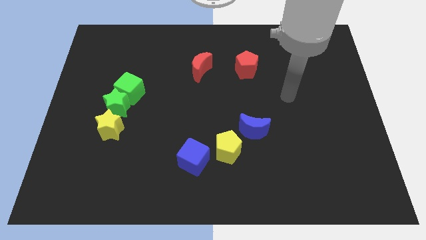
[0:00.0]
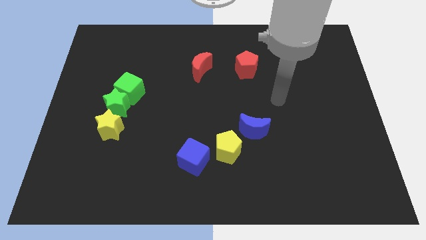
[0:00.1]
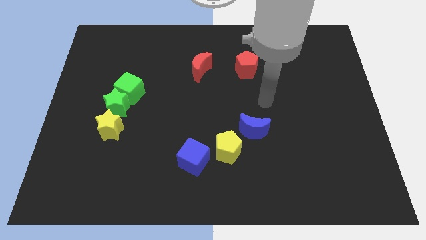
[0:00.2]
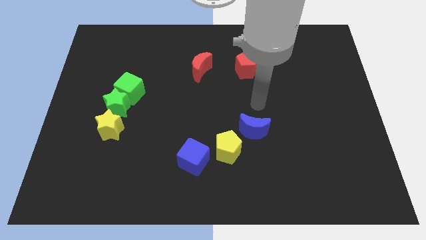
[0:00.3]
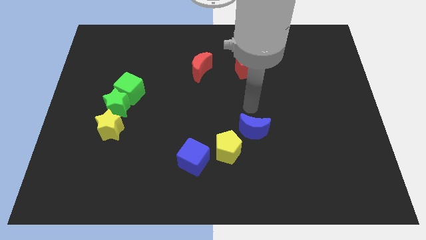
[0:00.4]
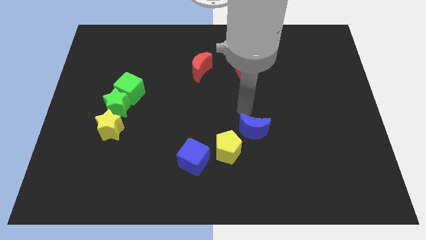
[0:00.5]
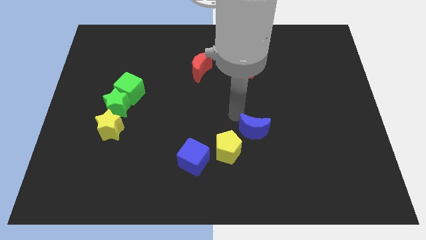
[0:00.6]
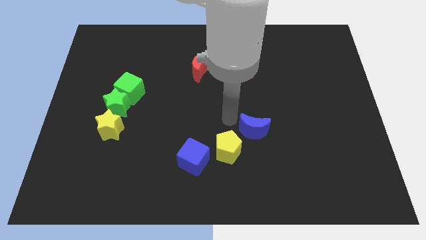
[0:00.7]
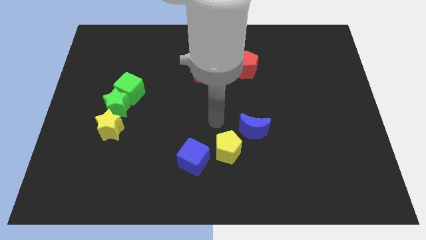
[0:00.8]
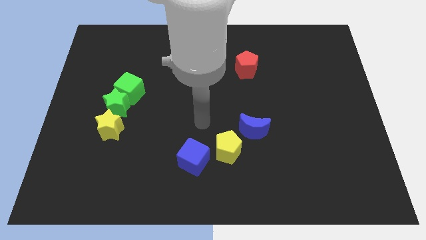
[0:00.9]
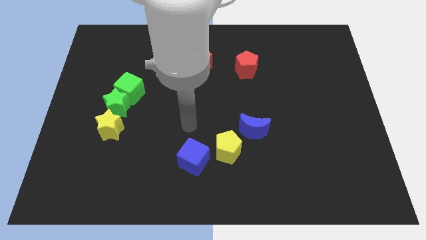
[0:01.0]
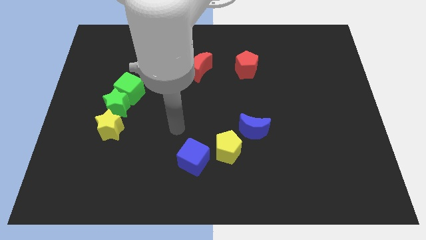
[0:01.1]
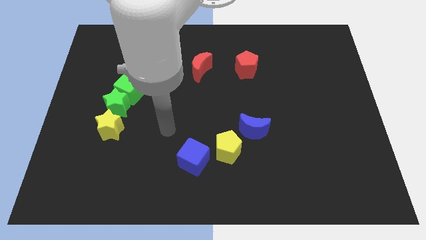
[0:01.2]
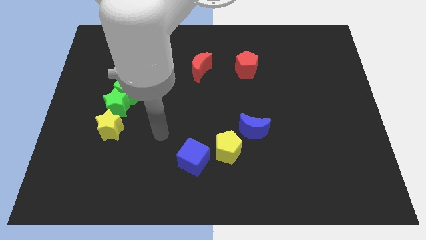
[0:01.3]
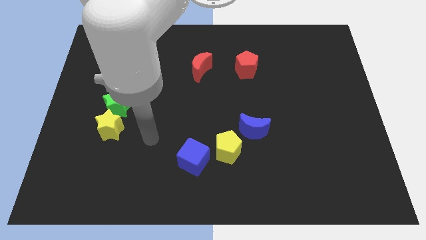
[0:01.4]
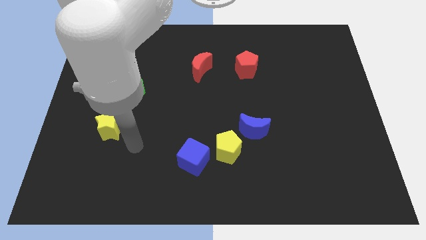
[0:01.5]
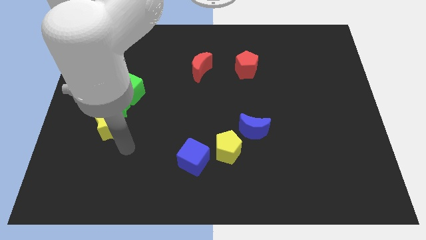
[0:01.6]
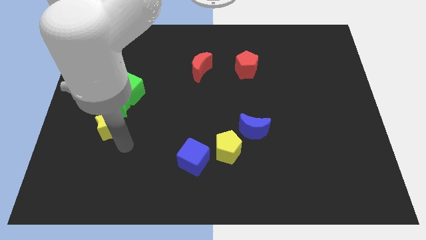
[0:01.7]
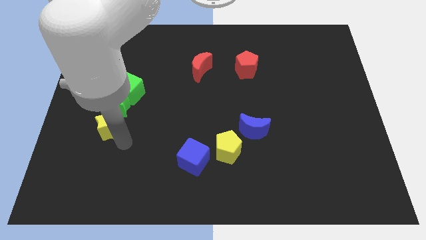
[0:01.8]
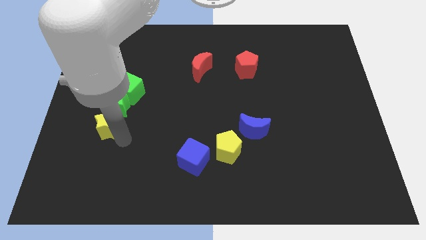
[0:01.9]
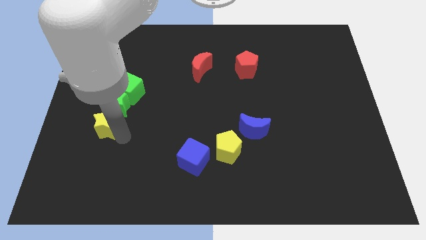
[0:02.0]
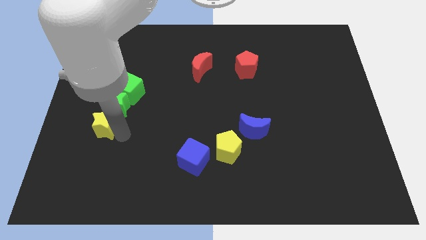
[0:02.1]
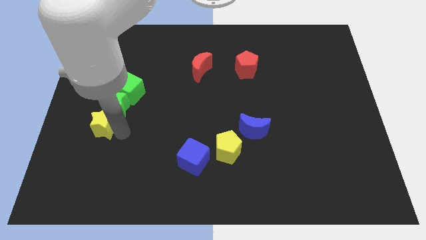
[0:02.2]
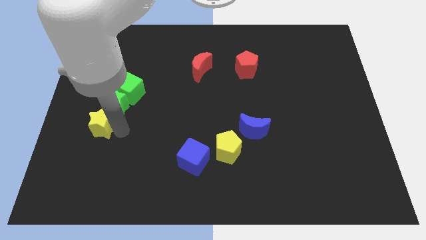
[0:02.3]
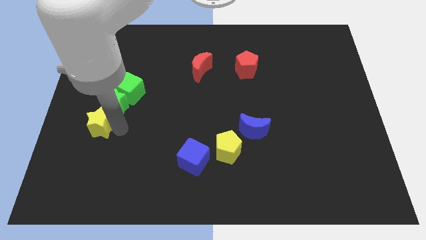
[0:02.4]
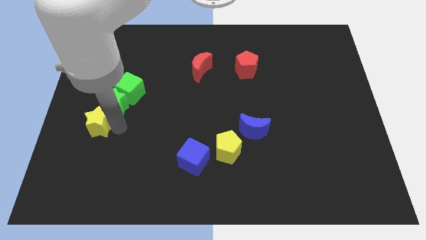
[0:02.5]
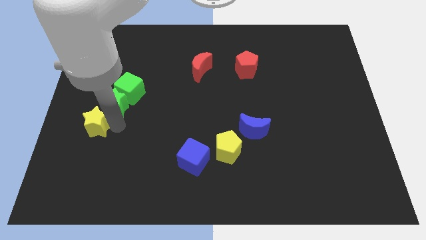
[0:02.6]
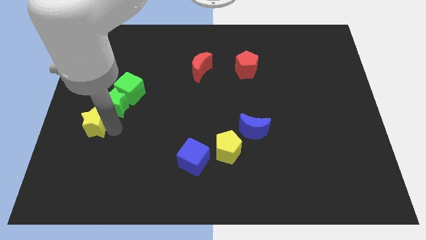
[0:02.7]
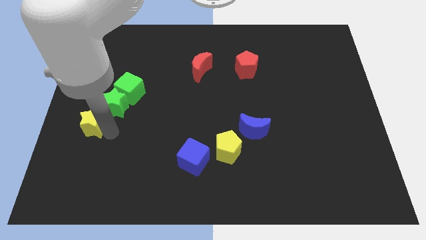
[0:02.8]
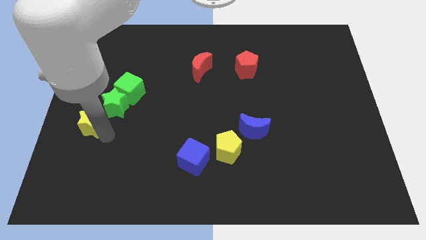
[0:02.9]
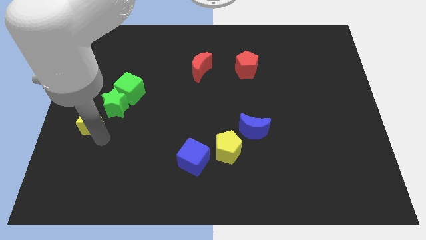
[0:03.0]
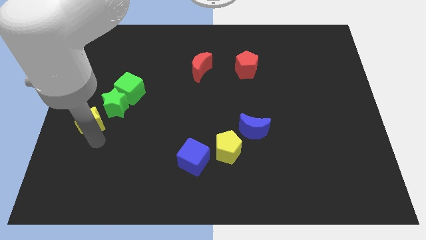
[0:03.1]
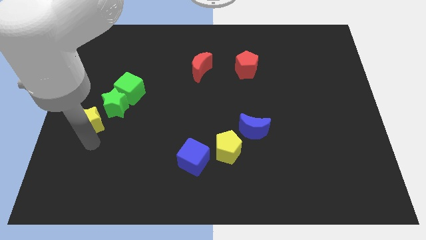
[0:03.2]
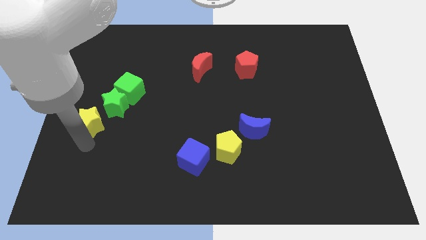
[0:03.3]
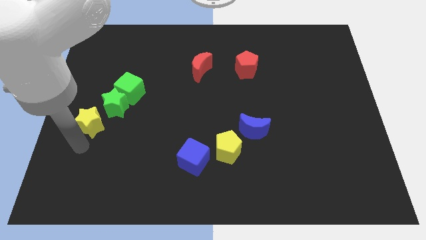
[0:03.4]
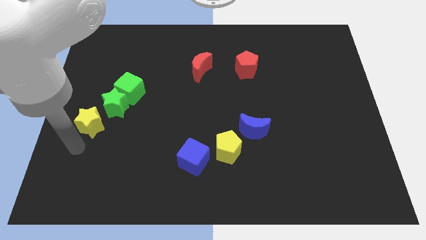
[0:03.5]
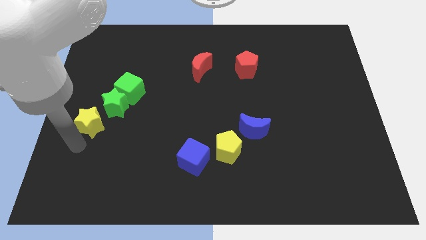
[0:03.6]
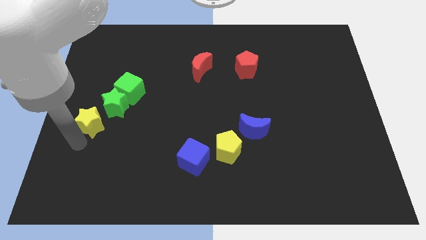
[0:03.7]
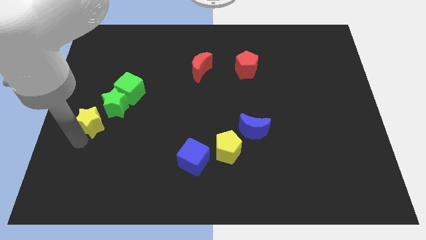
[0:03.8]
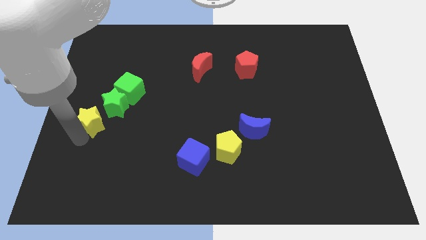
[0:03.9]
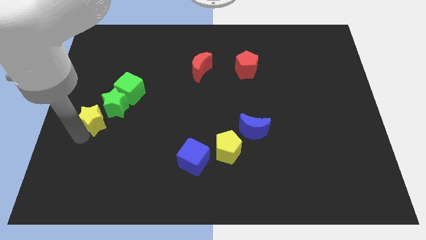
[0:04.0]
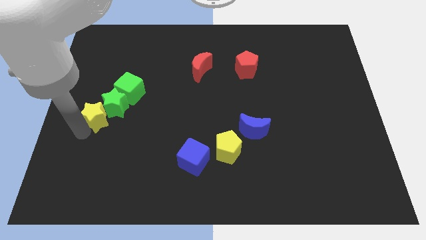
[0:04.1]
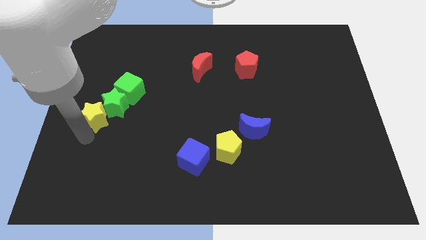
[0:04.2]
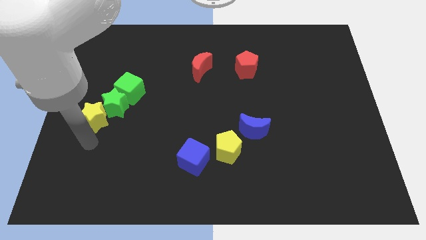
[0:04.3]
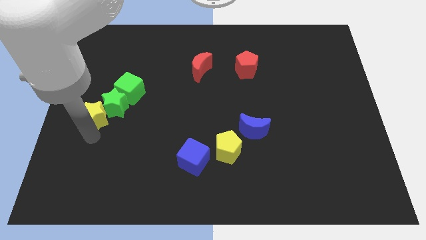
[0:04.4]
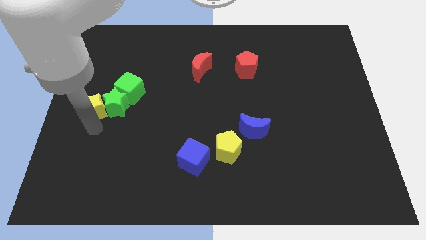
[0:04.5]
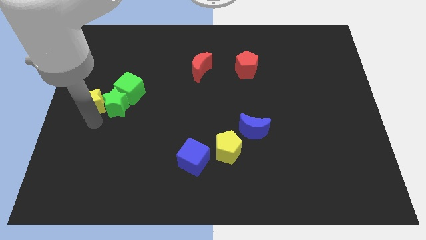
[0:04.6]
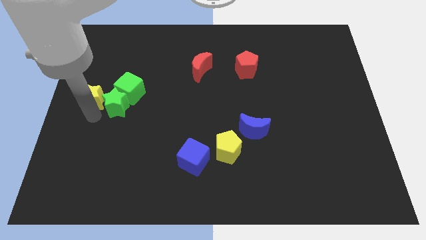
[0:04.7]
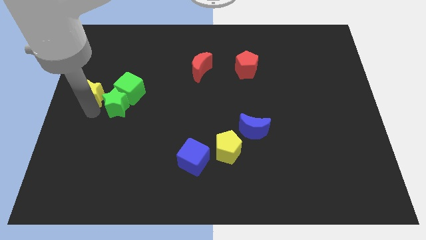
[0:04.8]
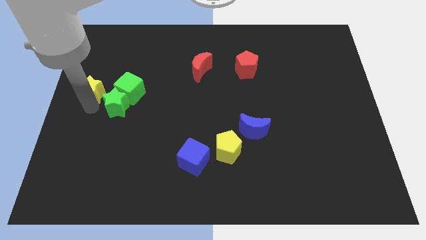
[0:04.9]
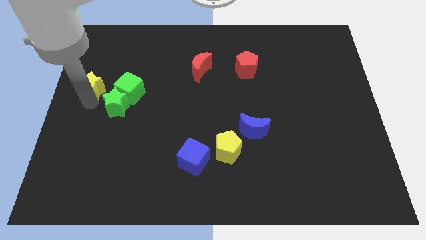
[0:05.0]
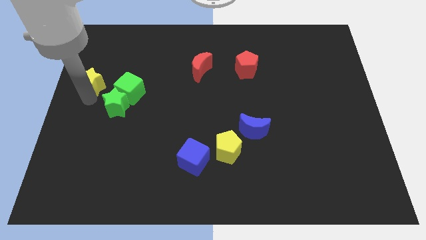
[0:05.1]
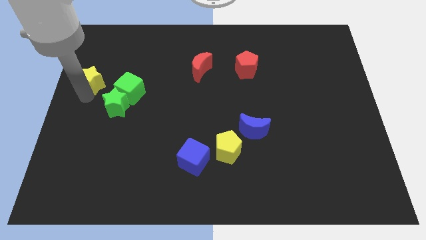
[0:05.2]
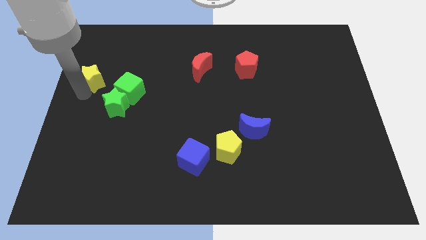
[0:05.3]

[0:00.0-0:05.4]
put the yellow star to the top left side of the green cube

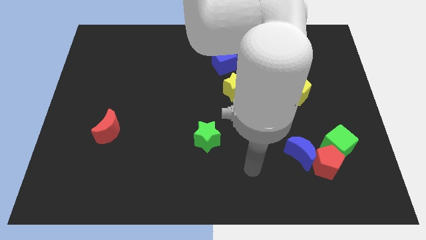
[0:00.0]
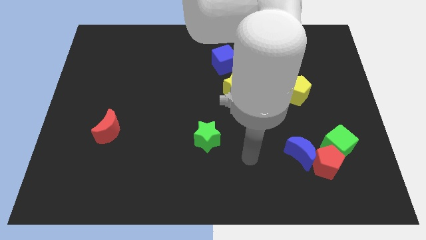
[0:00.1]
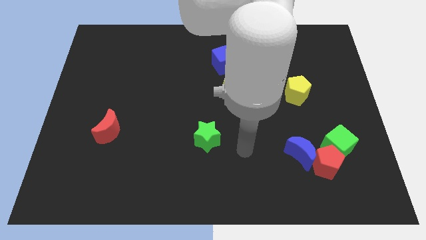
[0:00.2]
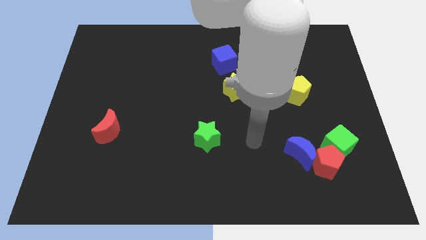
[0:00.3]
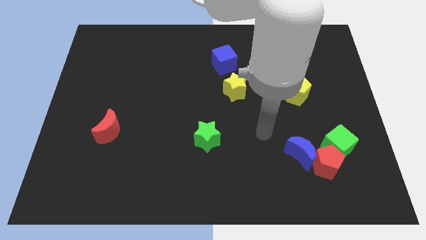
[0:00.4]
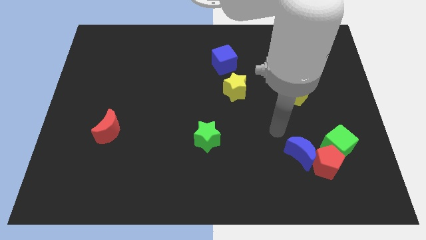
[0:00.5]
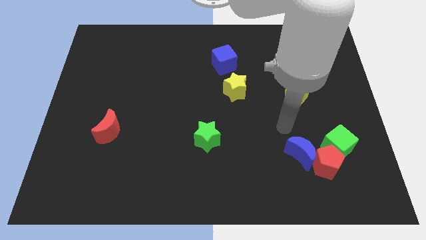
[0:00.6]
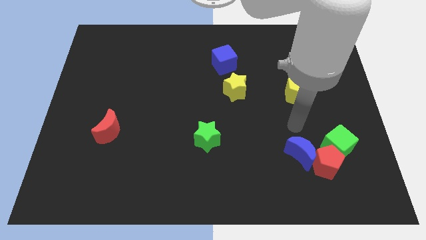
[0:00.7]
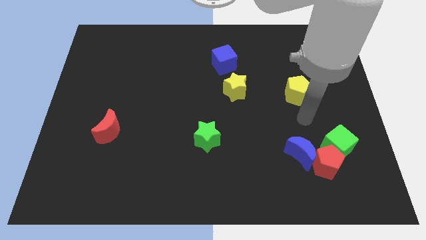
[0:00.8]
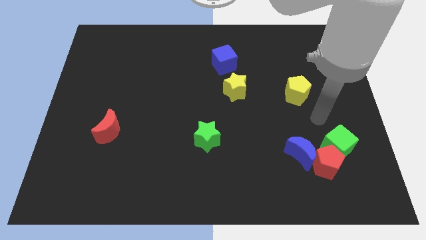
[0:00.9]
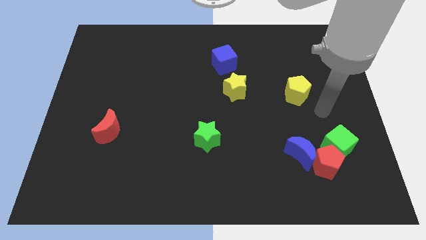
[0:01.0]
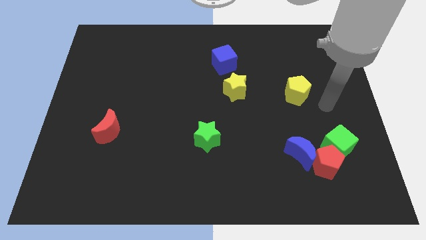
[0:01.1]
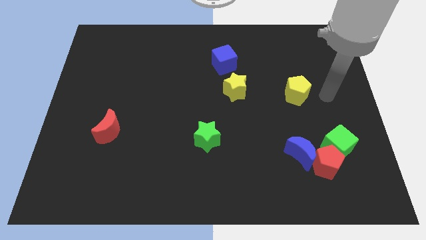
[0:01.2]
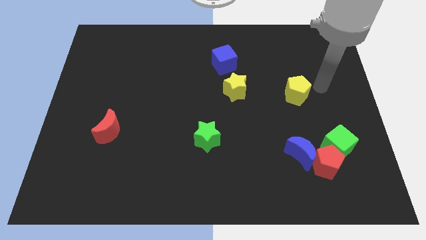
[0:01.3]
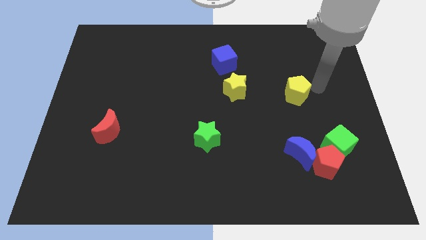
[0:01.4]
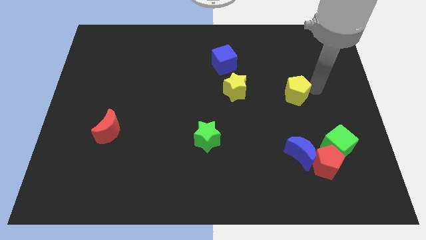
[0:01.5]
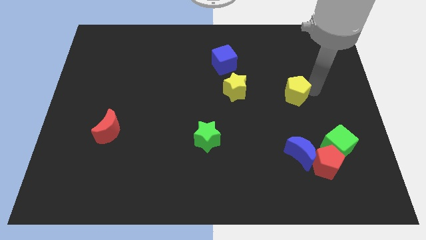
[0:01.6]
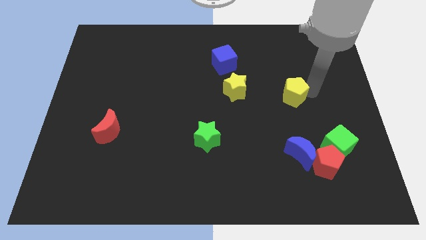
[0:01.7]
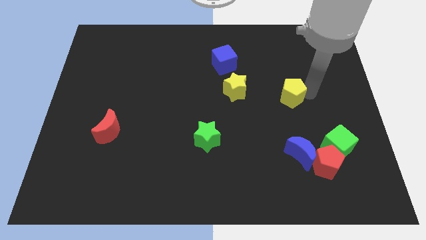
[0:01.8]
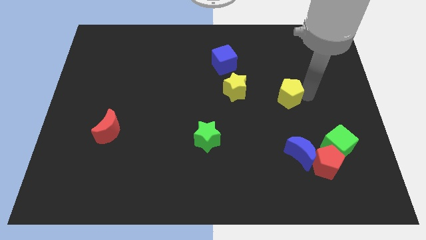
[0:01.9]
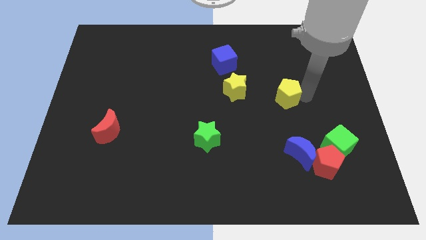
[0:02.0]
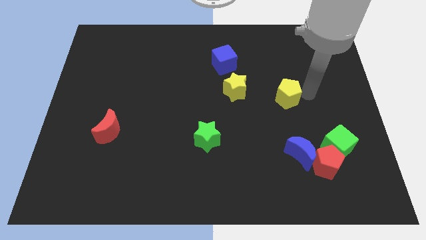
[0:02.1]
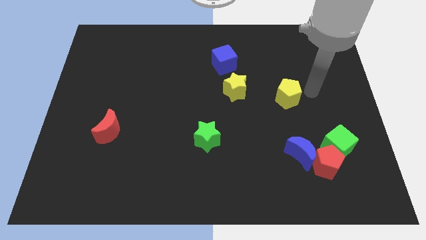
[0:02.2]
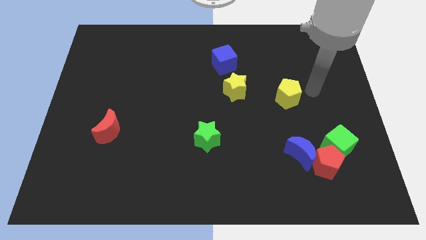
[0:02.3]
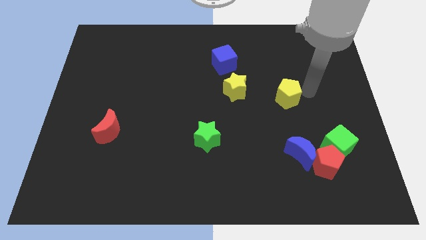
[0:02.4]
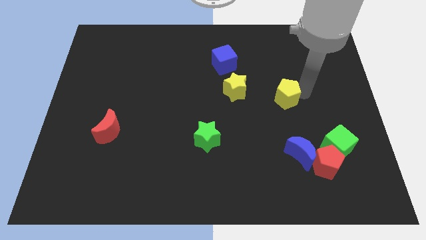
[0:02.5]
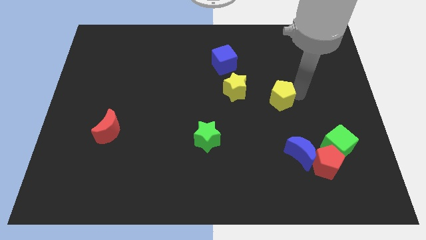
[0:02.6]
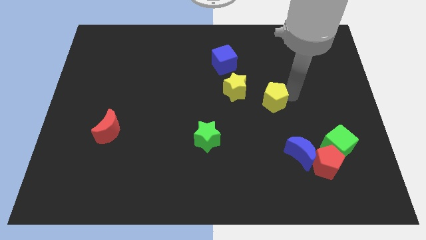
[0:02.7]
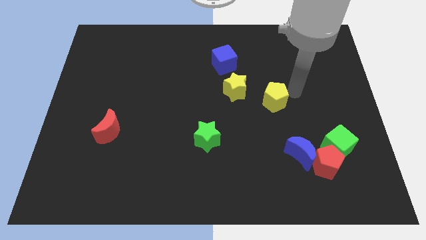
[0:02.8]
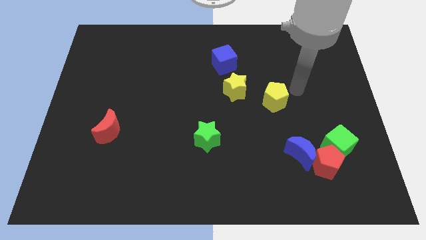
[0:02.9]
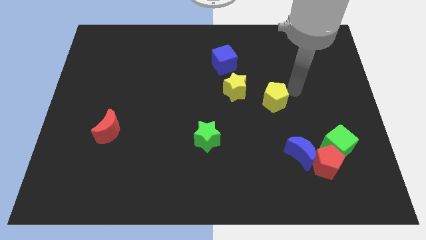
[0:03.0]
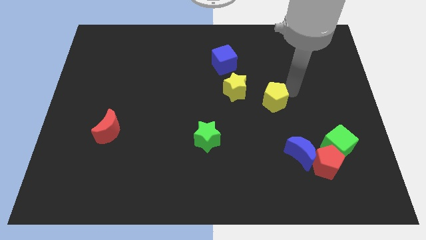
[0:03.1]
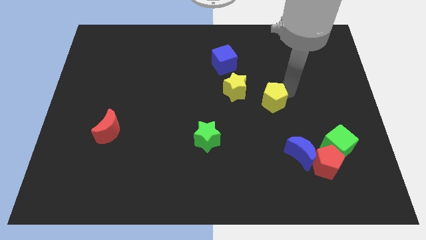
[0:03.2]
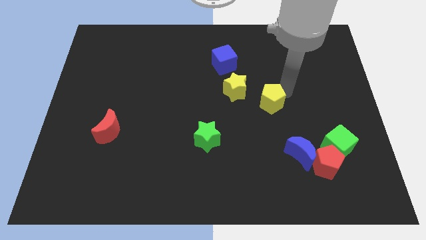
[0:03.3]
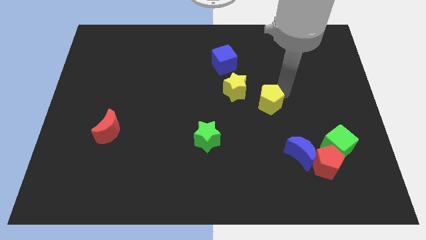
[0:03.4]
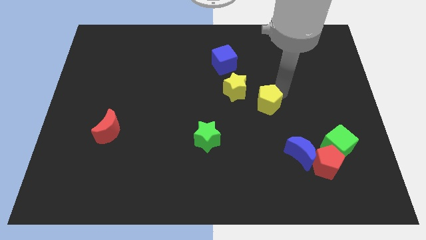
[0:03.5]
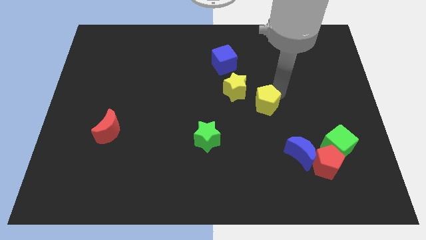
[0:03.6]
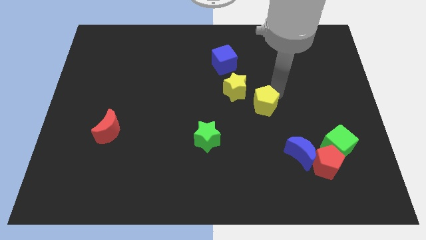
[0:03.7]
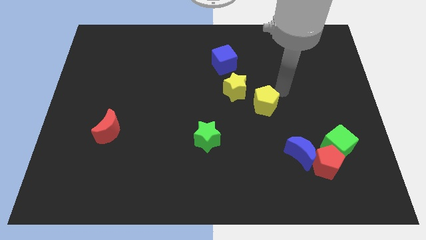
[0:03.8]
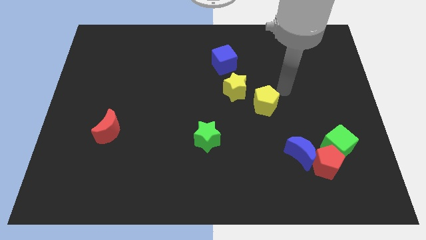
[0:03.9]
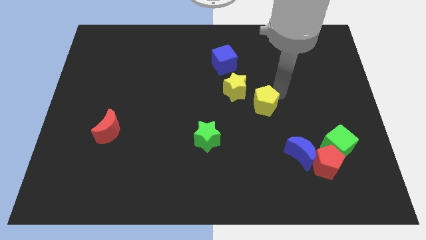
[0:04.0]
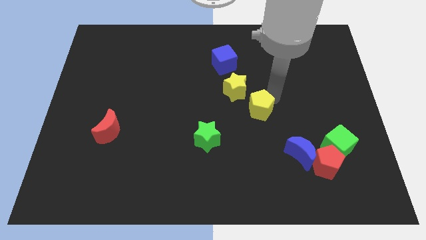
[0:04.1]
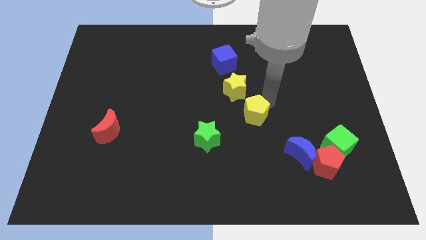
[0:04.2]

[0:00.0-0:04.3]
put the yellow pentagon to the bottom of the yellow star
